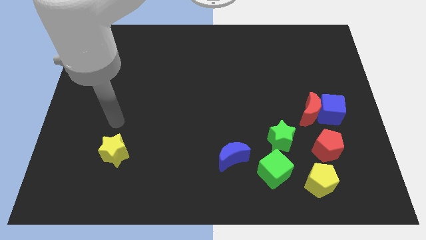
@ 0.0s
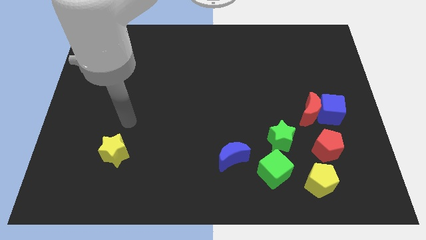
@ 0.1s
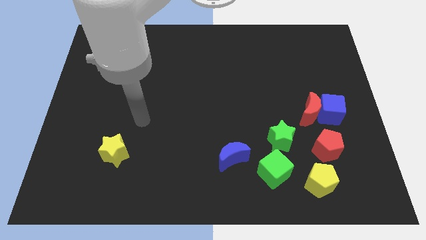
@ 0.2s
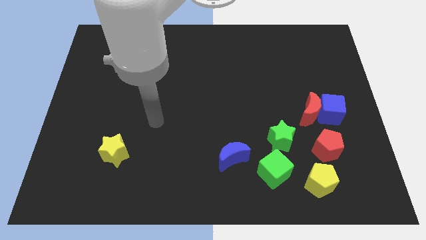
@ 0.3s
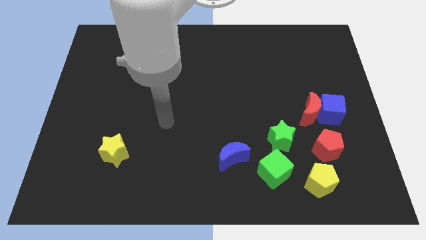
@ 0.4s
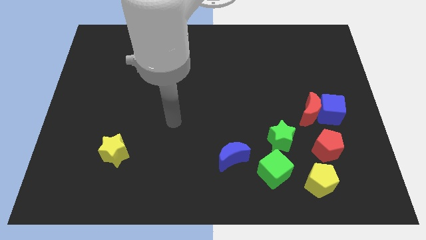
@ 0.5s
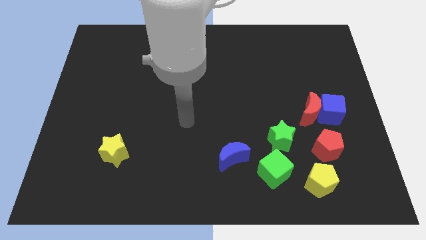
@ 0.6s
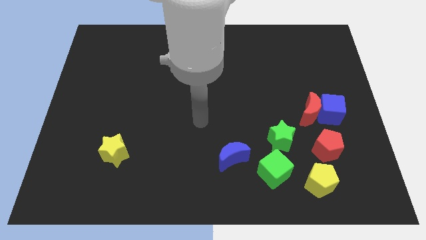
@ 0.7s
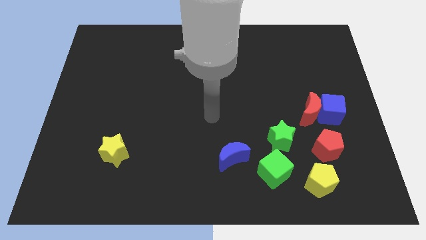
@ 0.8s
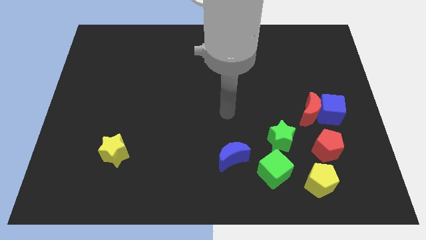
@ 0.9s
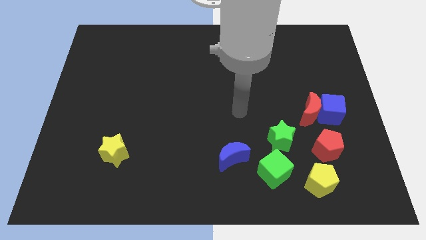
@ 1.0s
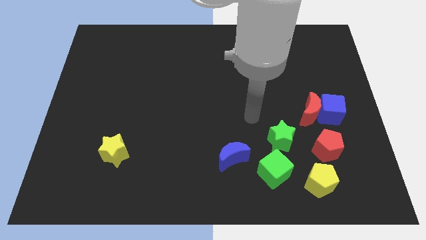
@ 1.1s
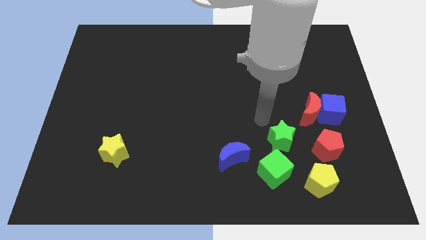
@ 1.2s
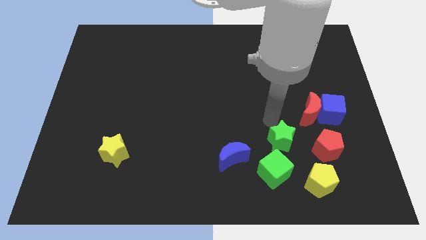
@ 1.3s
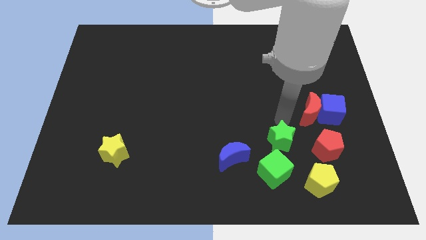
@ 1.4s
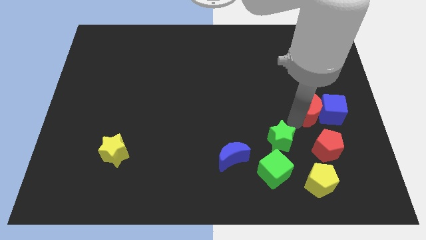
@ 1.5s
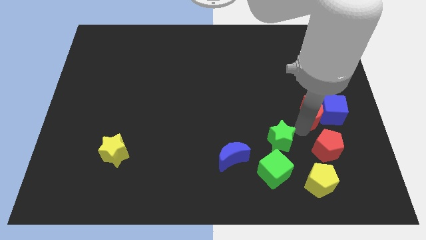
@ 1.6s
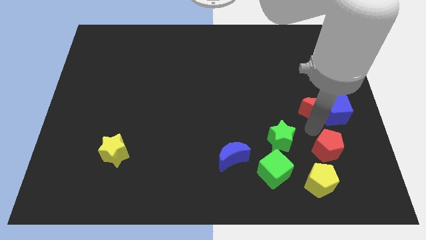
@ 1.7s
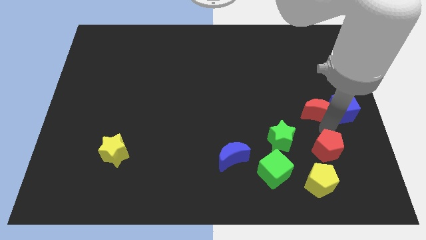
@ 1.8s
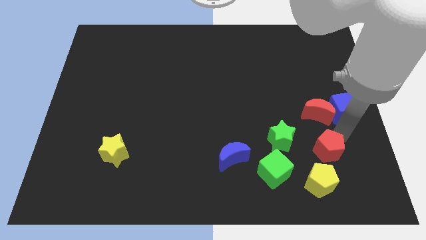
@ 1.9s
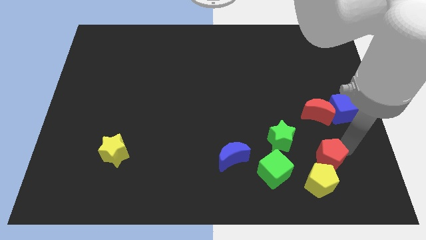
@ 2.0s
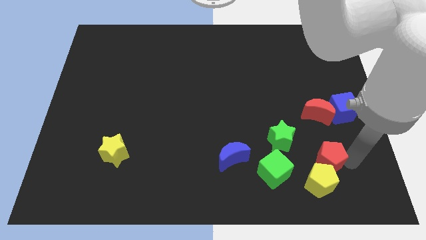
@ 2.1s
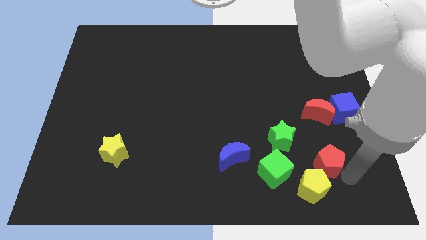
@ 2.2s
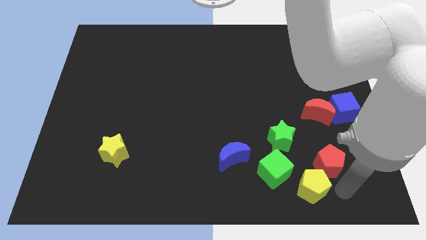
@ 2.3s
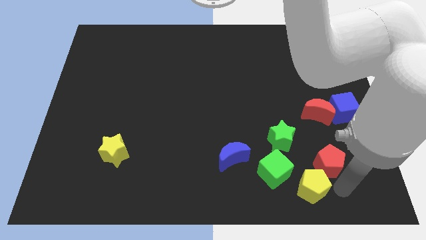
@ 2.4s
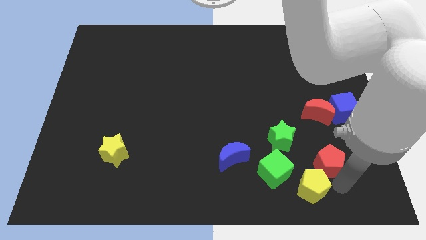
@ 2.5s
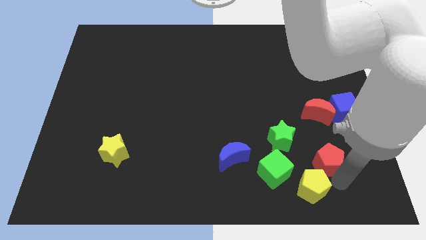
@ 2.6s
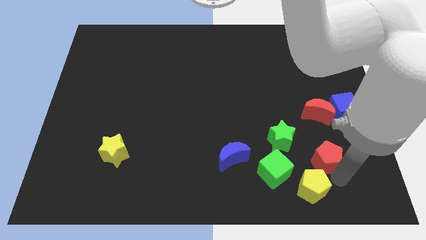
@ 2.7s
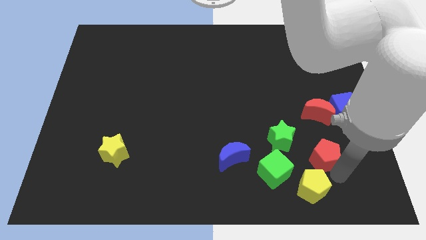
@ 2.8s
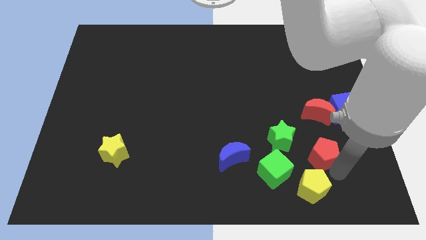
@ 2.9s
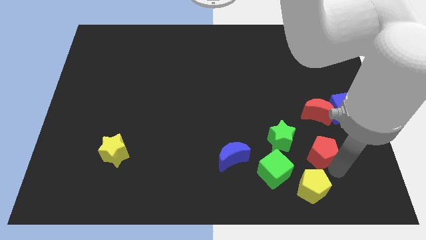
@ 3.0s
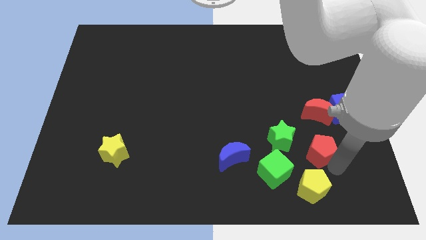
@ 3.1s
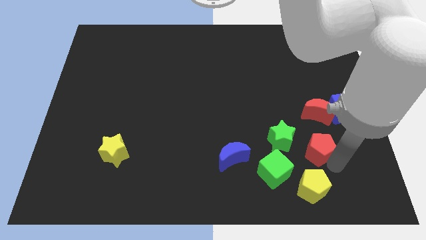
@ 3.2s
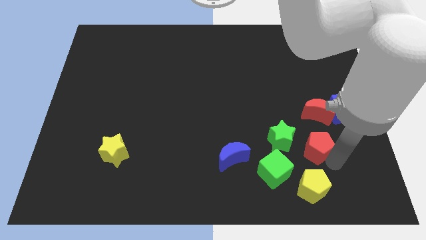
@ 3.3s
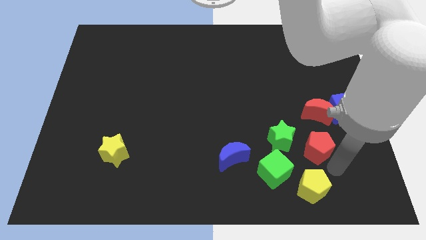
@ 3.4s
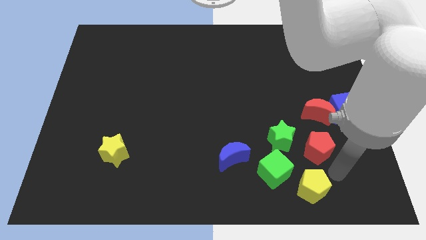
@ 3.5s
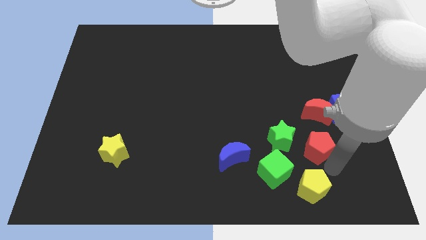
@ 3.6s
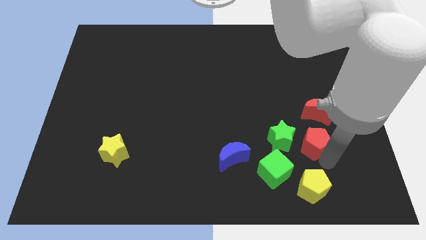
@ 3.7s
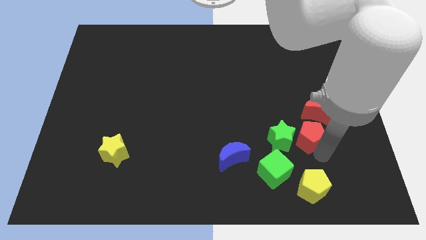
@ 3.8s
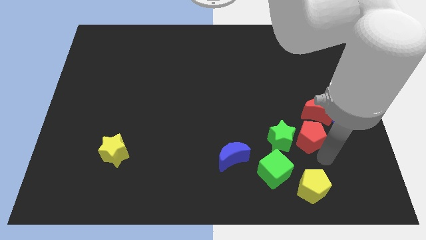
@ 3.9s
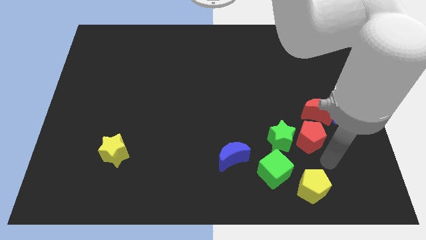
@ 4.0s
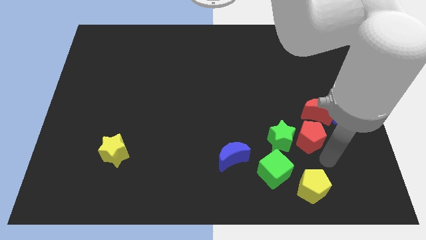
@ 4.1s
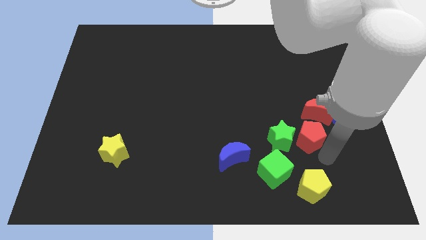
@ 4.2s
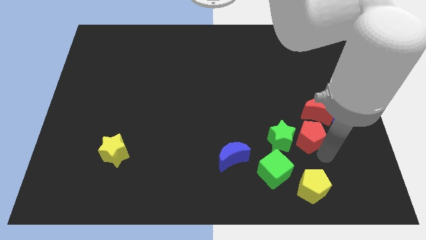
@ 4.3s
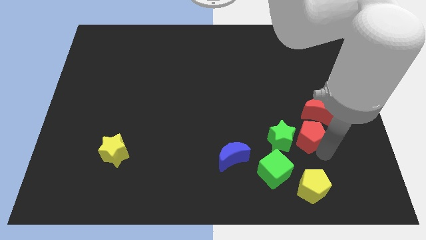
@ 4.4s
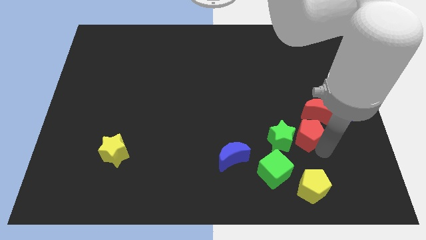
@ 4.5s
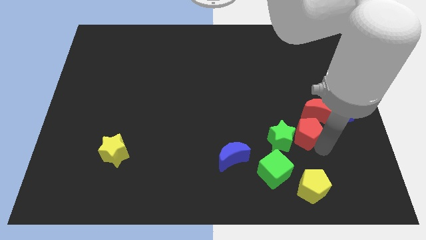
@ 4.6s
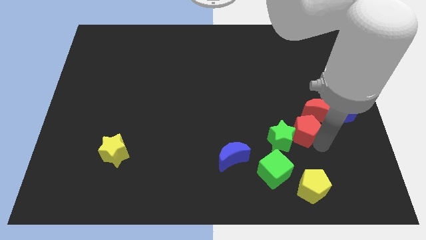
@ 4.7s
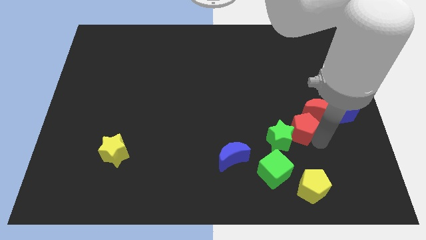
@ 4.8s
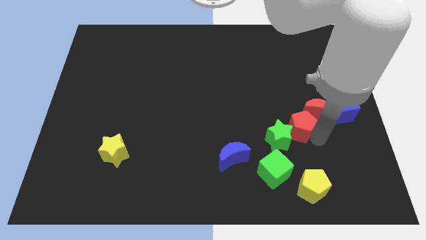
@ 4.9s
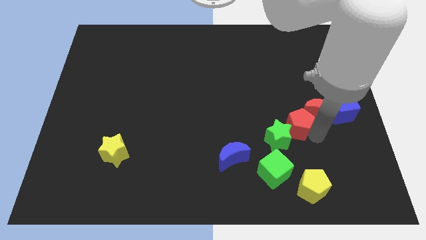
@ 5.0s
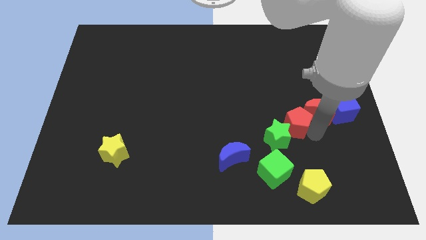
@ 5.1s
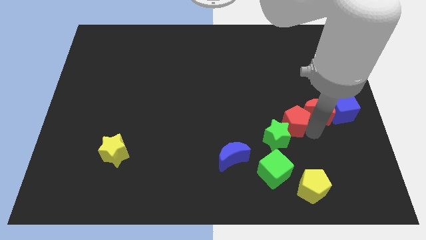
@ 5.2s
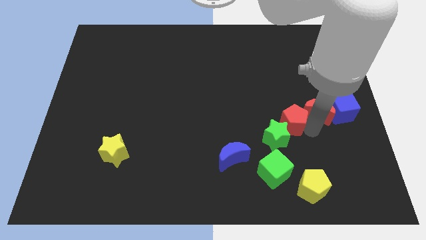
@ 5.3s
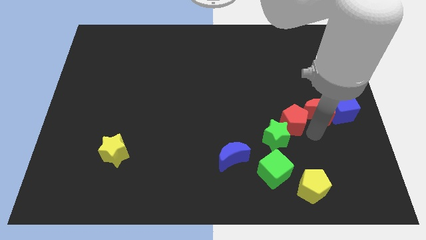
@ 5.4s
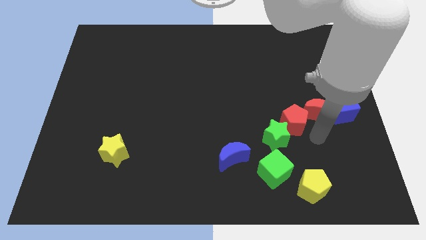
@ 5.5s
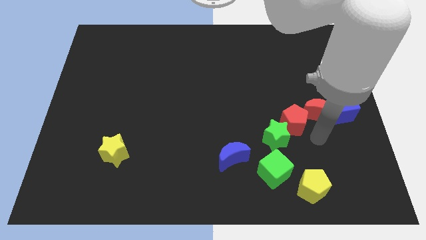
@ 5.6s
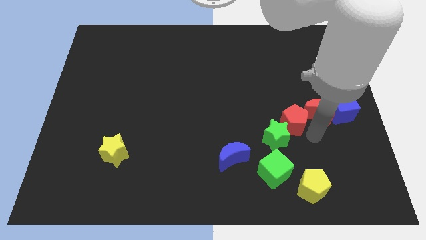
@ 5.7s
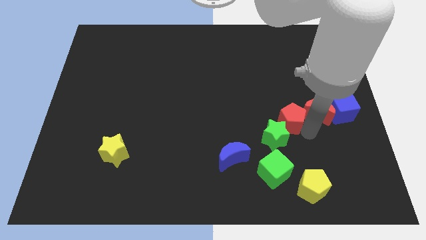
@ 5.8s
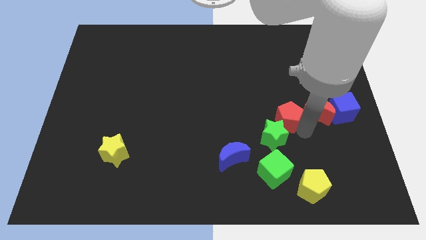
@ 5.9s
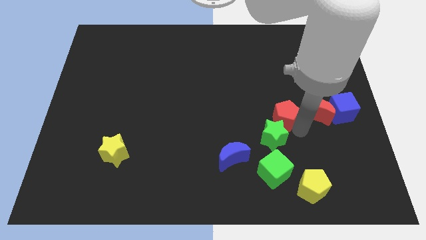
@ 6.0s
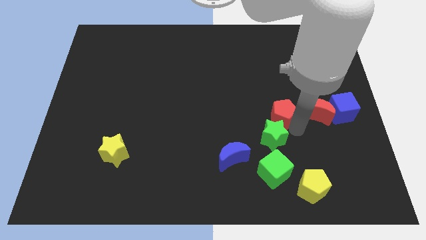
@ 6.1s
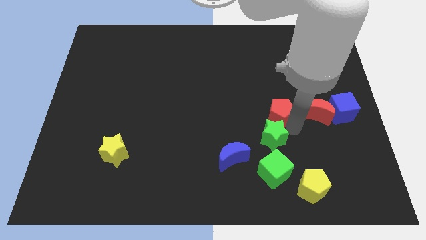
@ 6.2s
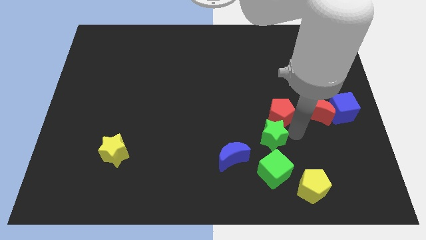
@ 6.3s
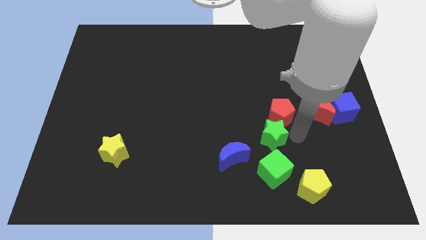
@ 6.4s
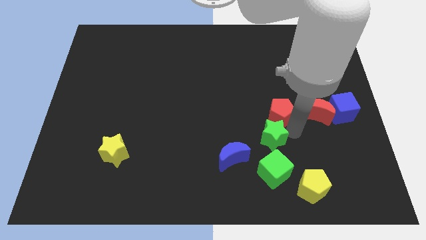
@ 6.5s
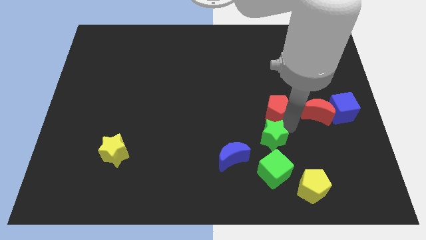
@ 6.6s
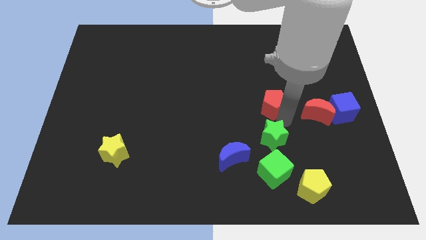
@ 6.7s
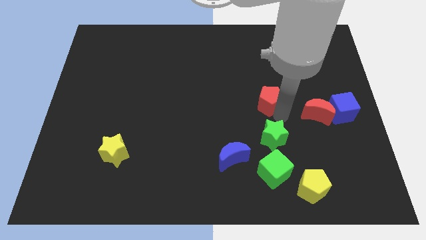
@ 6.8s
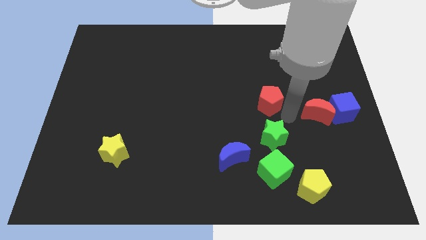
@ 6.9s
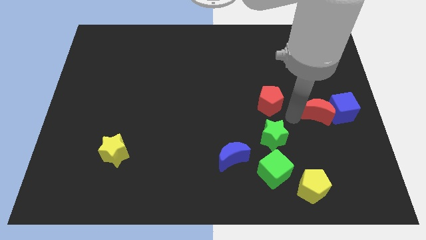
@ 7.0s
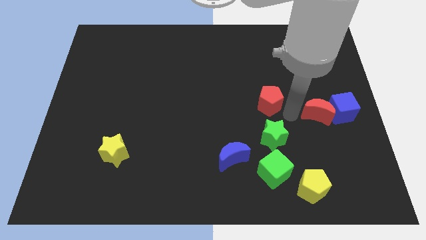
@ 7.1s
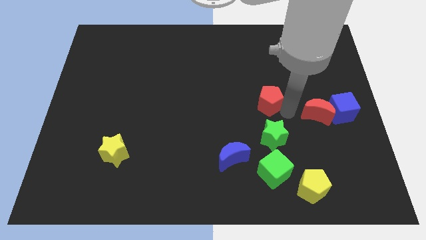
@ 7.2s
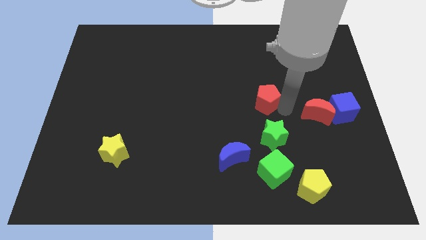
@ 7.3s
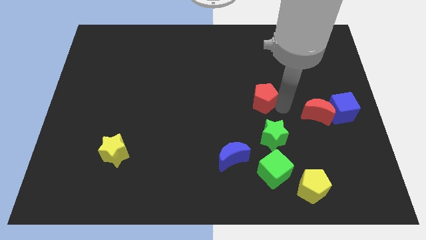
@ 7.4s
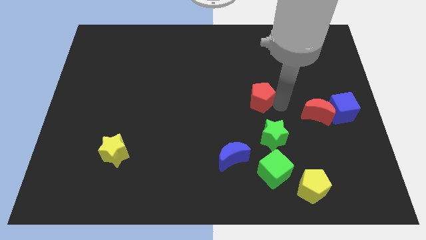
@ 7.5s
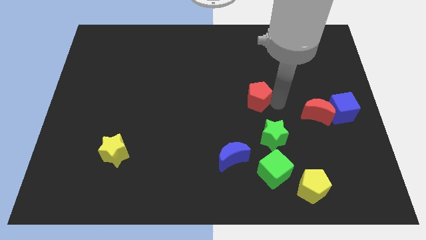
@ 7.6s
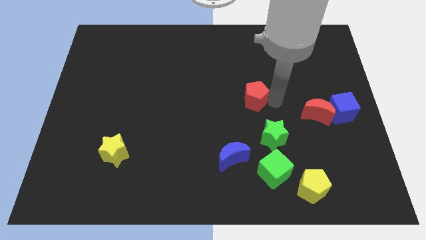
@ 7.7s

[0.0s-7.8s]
slide the red pentagon up and to the left diagonally

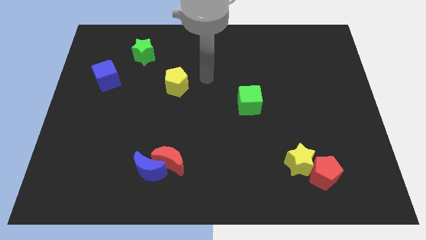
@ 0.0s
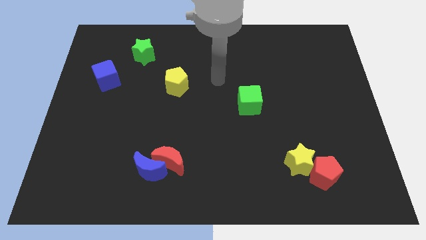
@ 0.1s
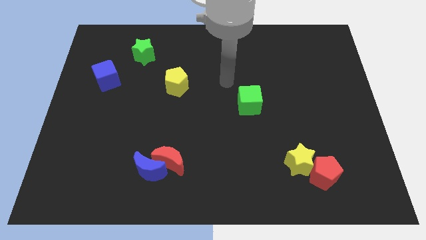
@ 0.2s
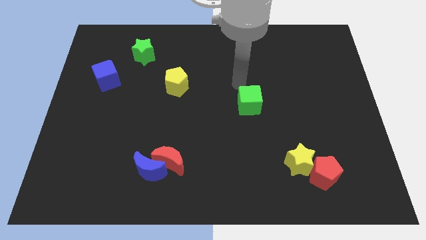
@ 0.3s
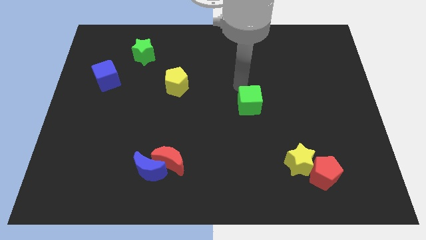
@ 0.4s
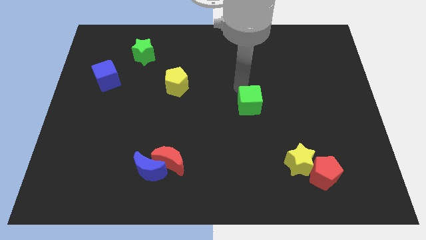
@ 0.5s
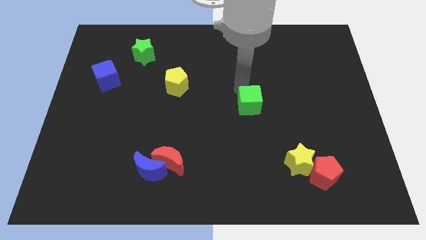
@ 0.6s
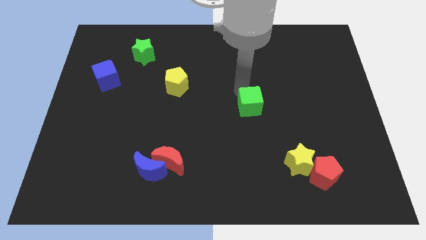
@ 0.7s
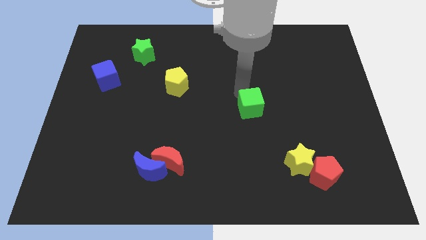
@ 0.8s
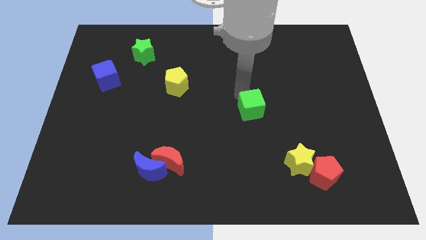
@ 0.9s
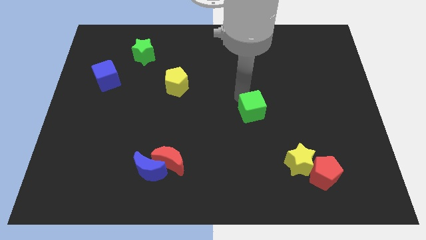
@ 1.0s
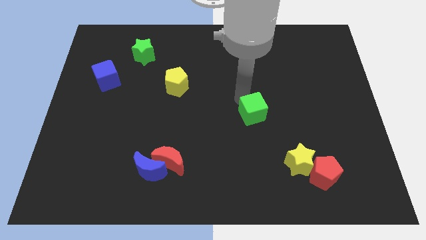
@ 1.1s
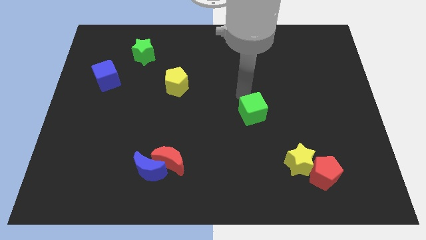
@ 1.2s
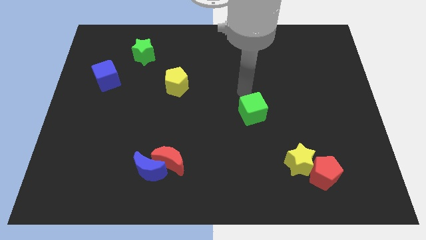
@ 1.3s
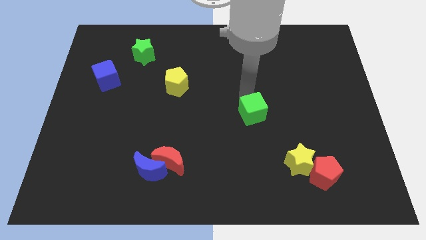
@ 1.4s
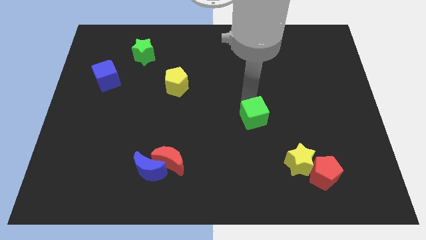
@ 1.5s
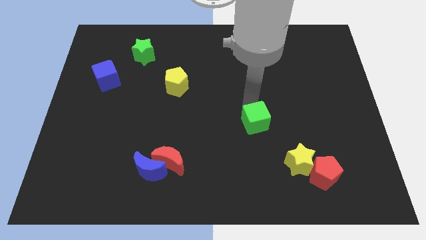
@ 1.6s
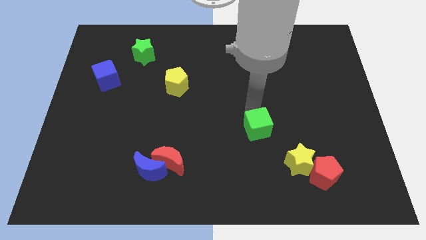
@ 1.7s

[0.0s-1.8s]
slide the green cube down slightly
